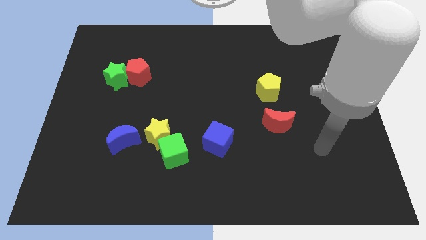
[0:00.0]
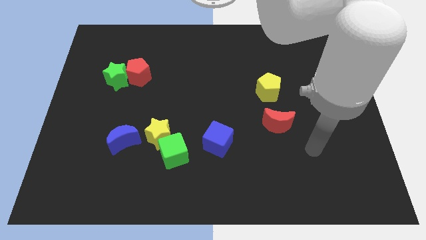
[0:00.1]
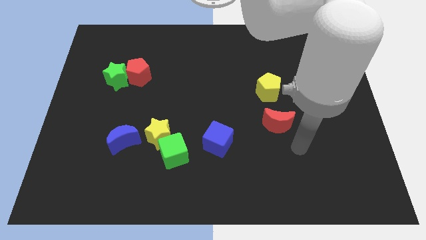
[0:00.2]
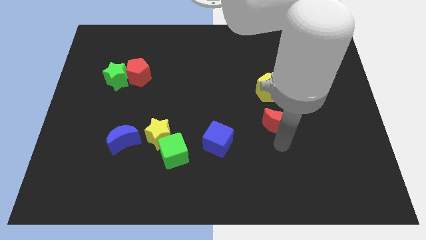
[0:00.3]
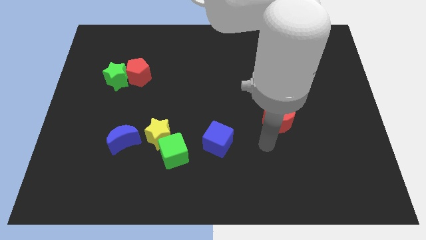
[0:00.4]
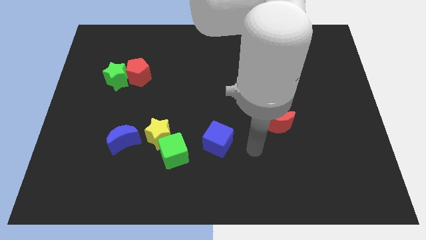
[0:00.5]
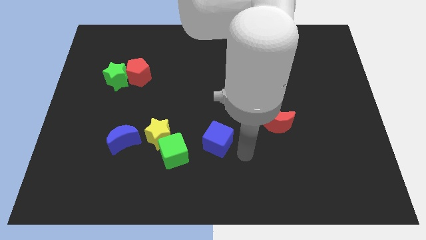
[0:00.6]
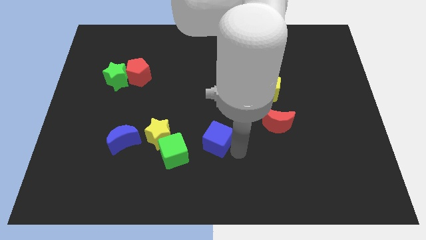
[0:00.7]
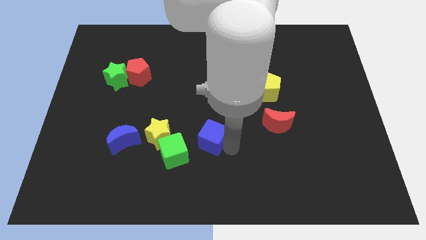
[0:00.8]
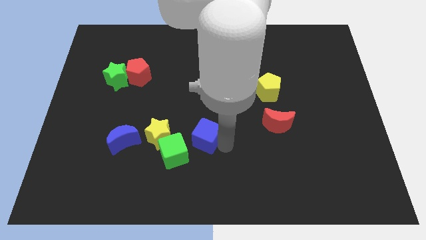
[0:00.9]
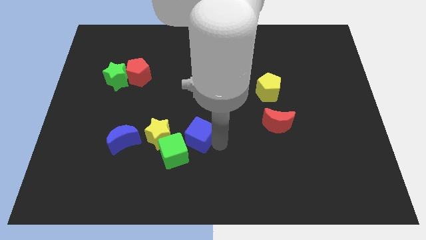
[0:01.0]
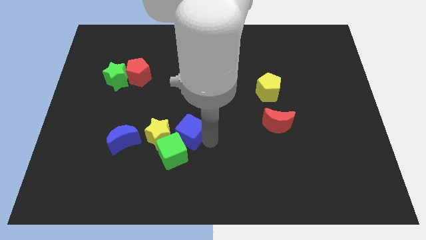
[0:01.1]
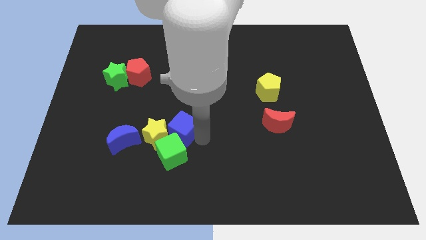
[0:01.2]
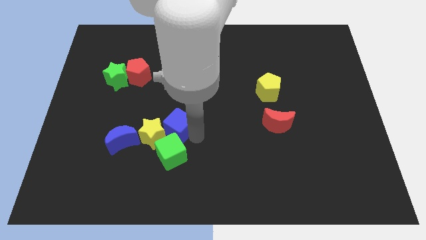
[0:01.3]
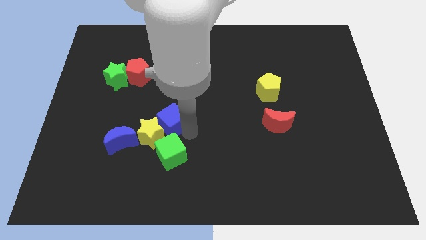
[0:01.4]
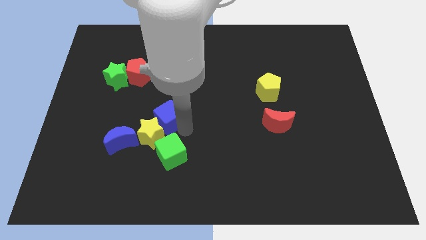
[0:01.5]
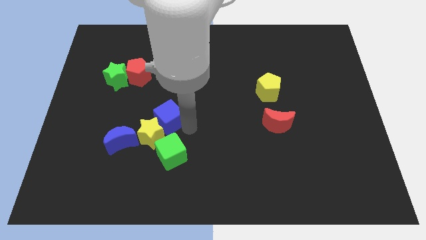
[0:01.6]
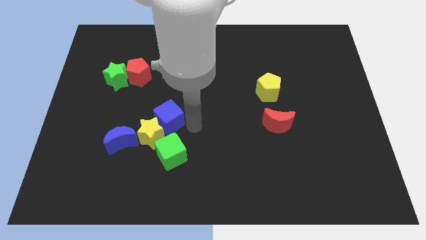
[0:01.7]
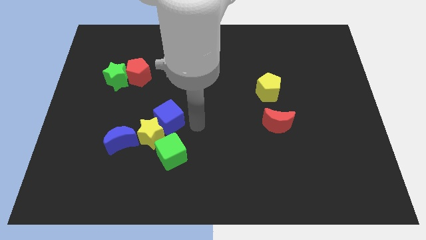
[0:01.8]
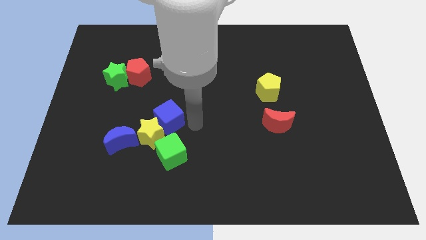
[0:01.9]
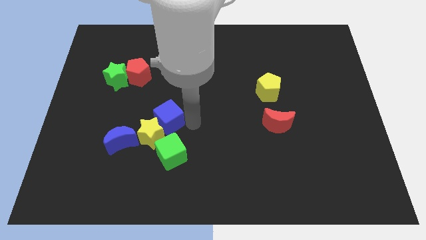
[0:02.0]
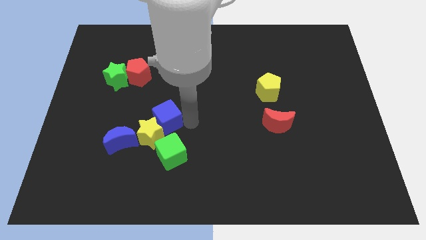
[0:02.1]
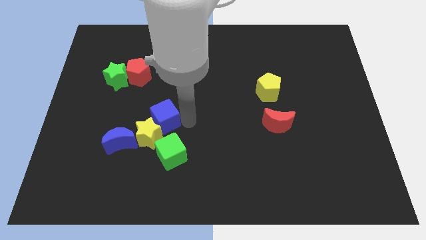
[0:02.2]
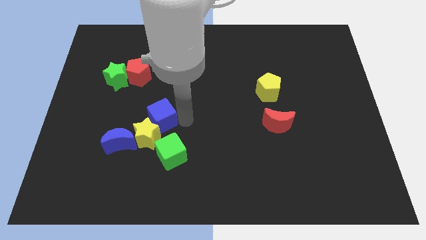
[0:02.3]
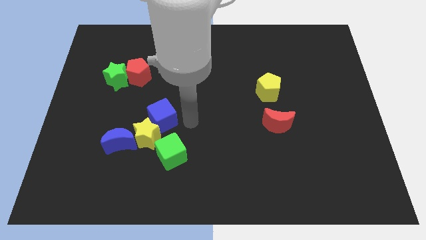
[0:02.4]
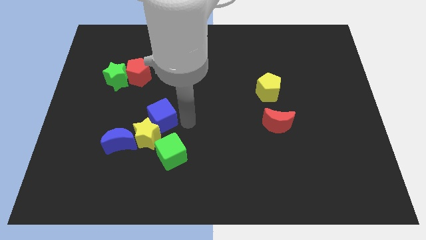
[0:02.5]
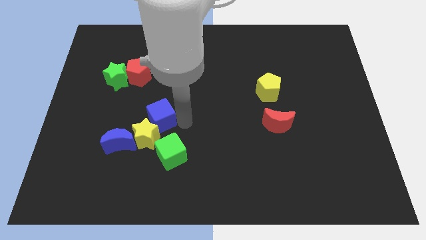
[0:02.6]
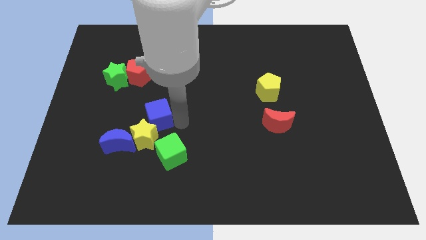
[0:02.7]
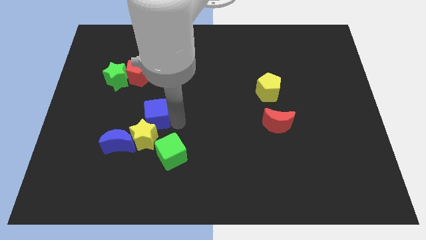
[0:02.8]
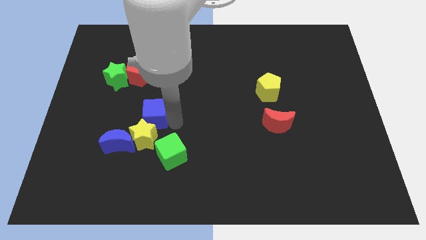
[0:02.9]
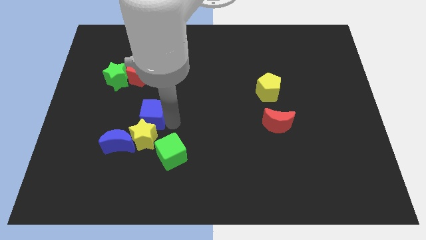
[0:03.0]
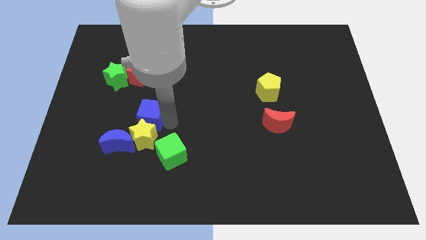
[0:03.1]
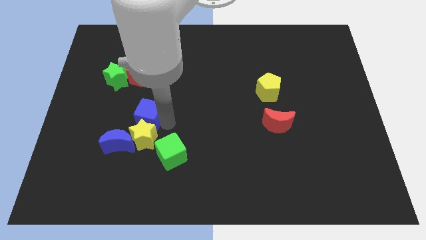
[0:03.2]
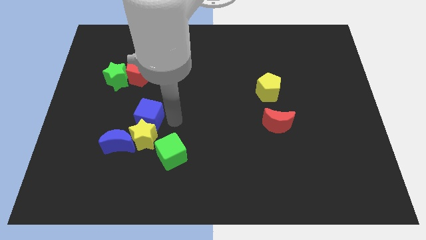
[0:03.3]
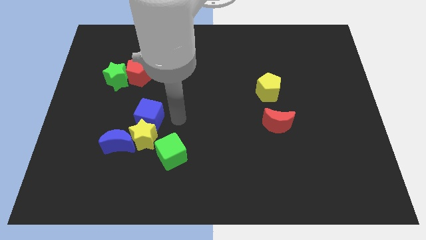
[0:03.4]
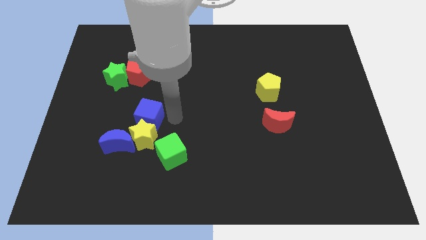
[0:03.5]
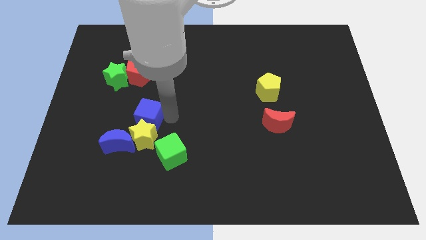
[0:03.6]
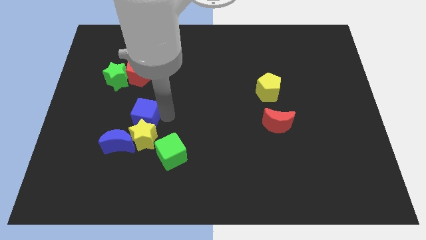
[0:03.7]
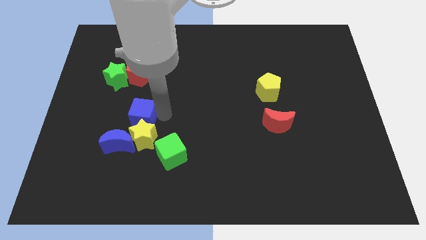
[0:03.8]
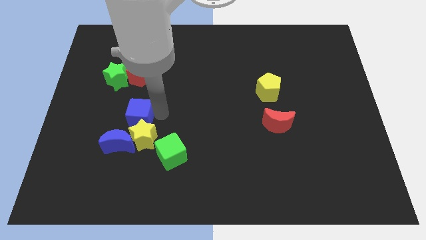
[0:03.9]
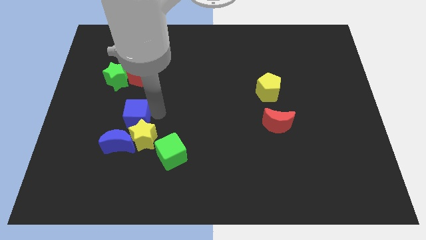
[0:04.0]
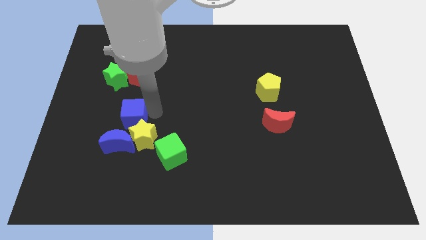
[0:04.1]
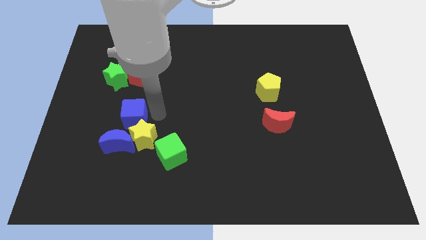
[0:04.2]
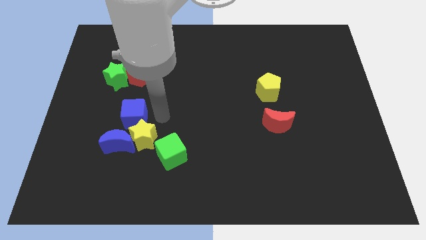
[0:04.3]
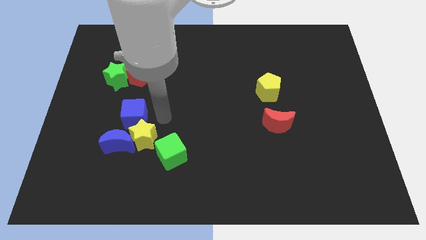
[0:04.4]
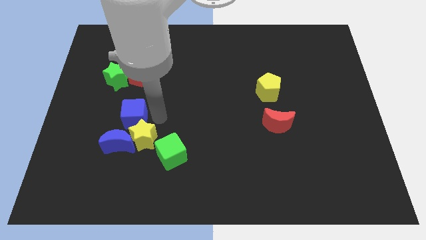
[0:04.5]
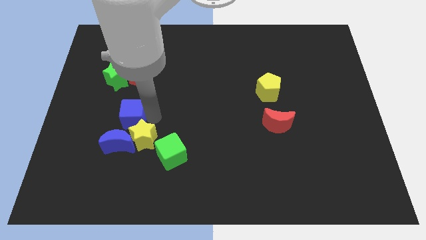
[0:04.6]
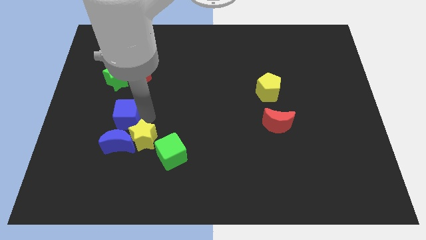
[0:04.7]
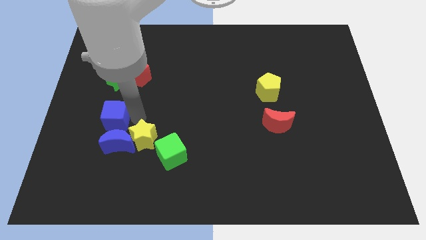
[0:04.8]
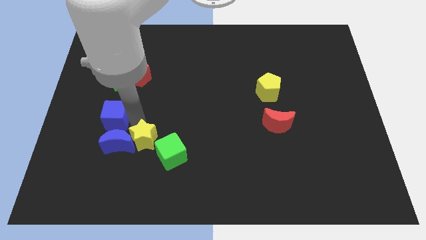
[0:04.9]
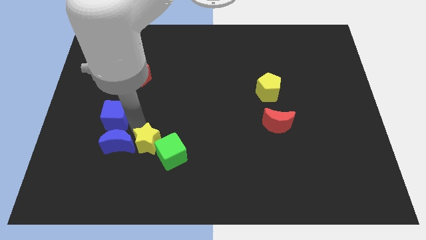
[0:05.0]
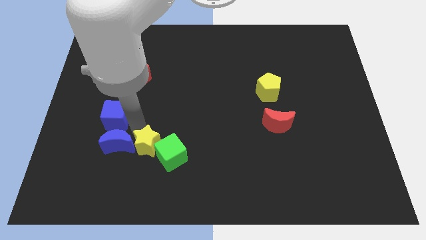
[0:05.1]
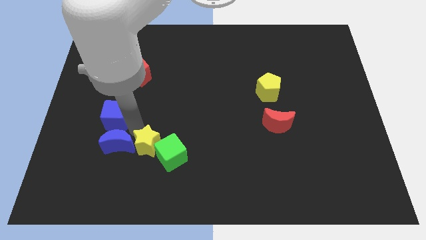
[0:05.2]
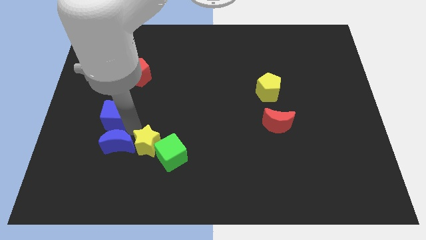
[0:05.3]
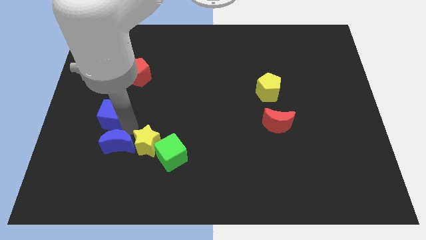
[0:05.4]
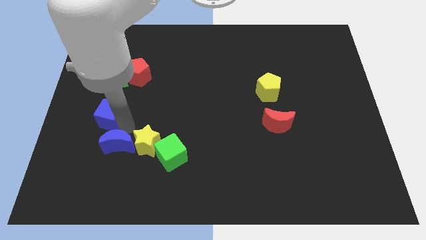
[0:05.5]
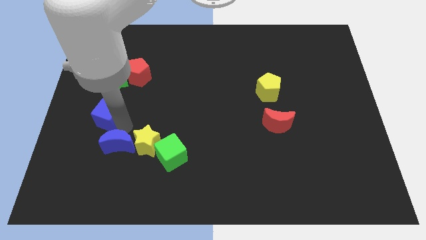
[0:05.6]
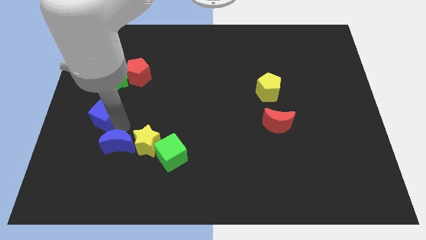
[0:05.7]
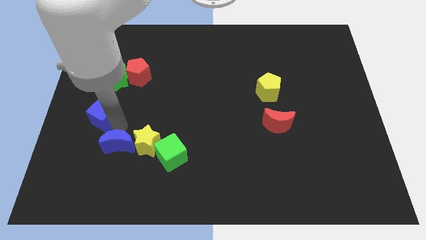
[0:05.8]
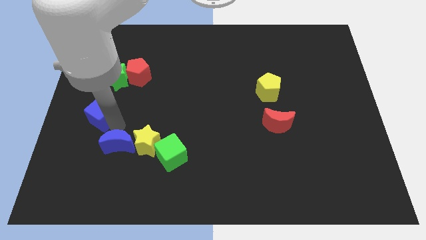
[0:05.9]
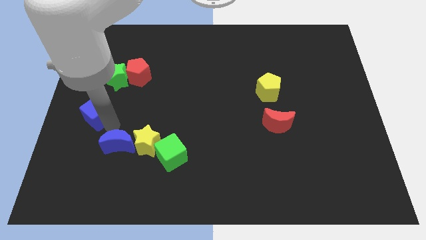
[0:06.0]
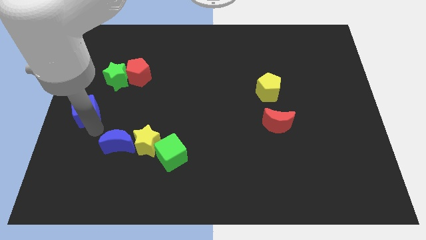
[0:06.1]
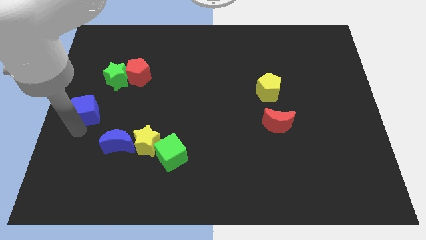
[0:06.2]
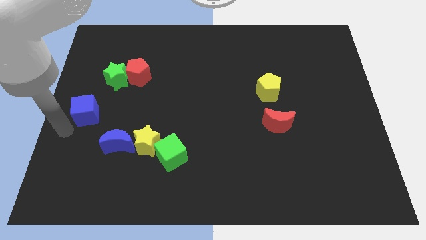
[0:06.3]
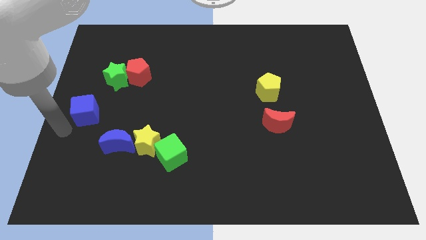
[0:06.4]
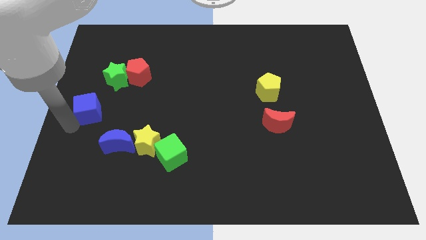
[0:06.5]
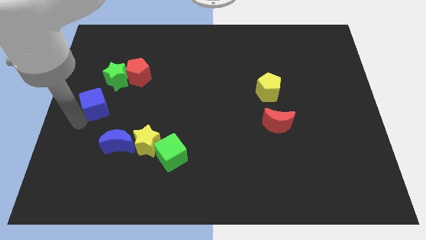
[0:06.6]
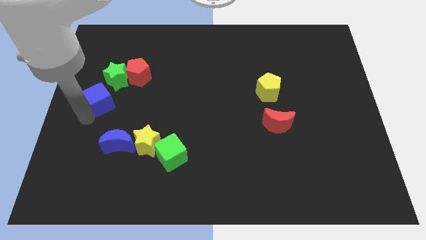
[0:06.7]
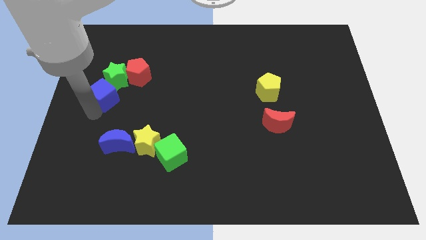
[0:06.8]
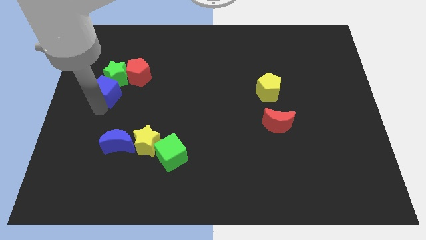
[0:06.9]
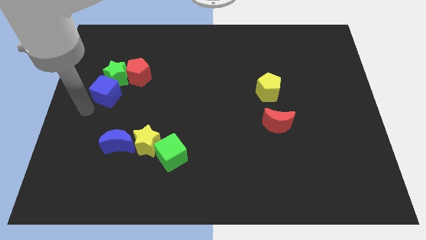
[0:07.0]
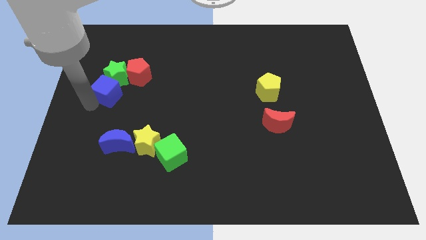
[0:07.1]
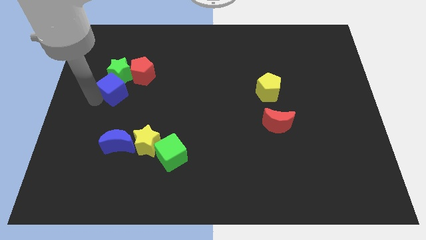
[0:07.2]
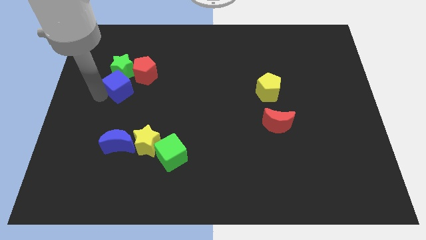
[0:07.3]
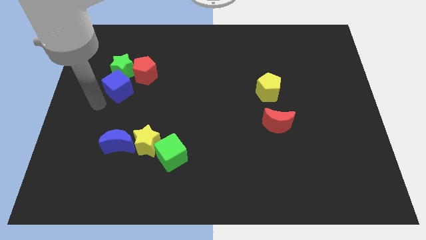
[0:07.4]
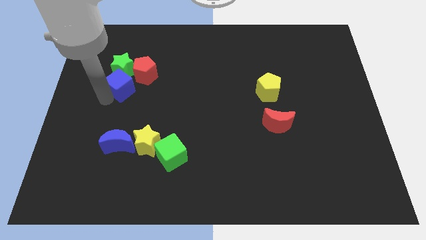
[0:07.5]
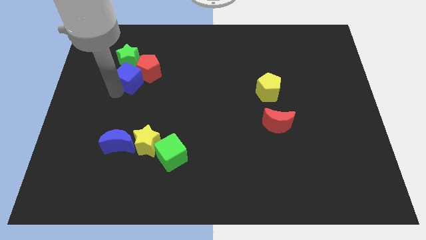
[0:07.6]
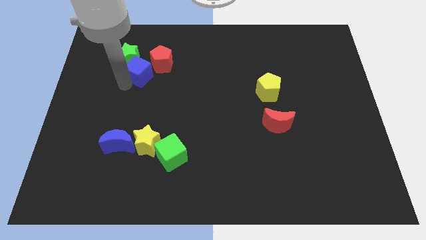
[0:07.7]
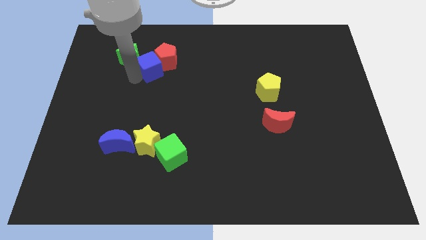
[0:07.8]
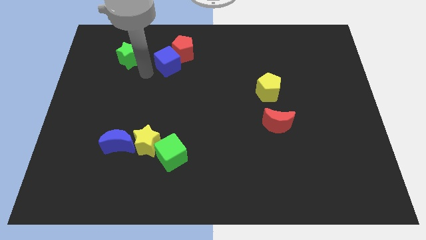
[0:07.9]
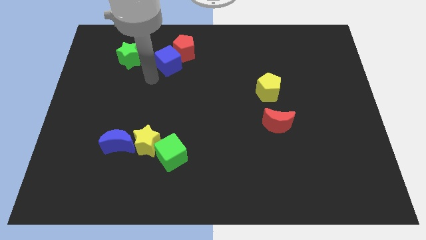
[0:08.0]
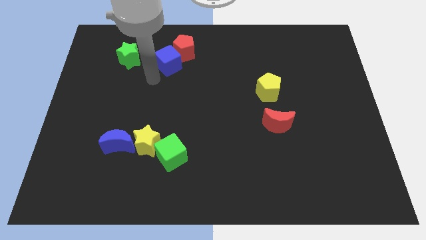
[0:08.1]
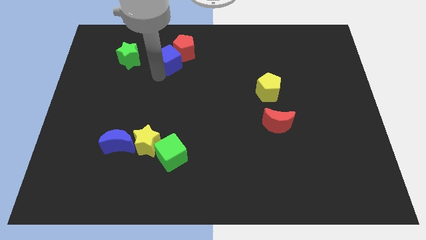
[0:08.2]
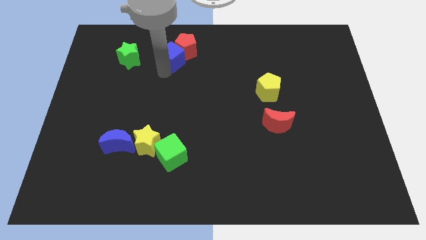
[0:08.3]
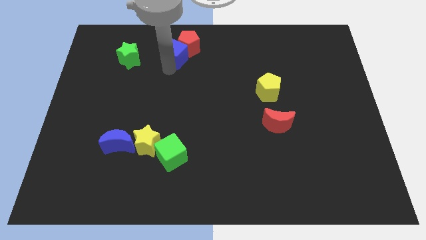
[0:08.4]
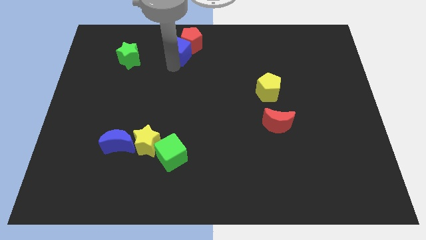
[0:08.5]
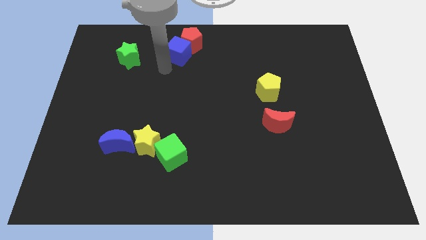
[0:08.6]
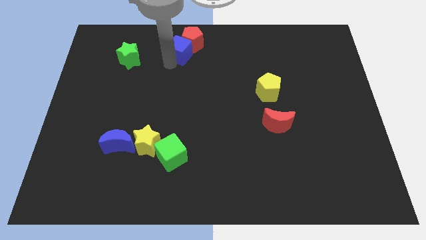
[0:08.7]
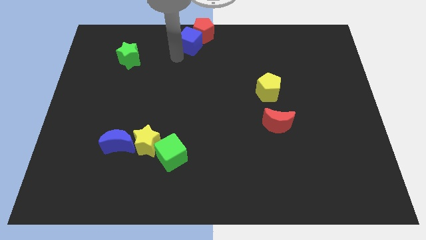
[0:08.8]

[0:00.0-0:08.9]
push the blue cube to the towards your base
